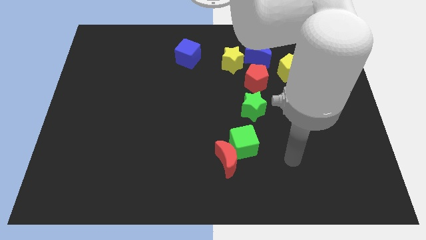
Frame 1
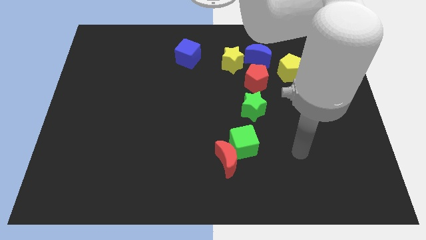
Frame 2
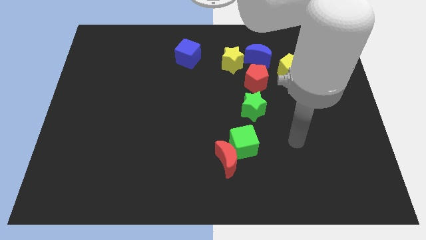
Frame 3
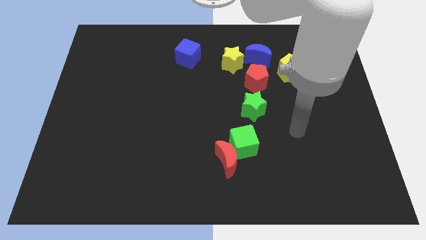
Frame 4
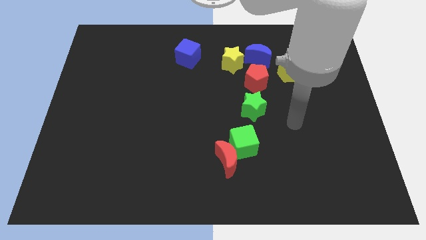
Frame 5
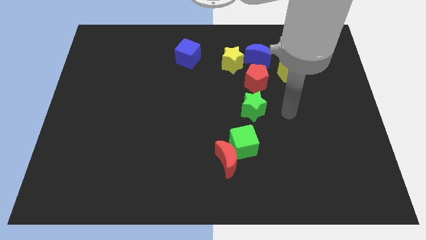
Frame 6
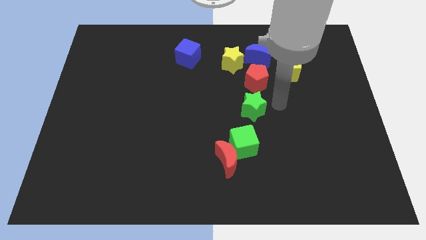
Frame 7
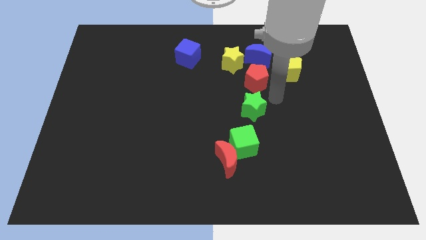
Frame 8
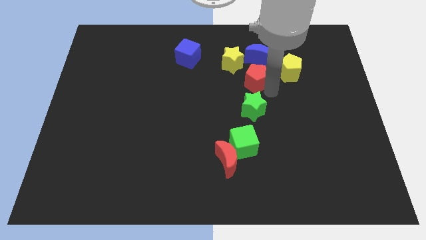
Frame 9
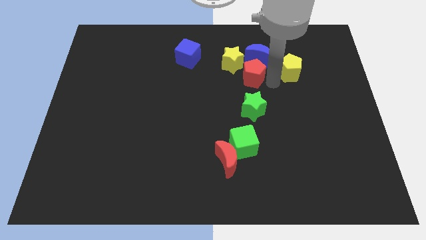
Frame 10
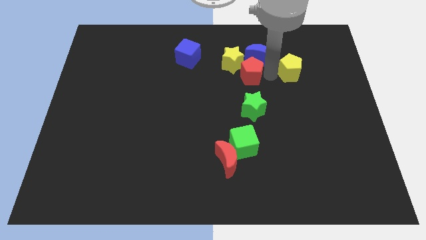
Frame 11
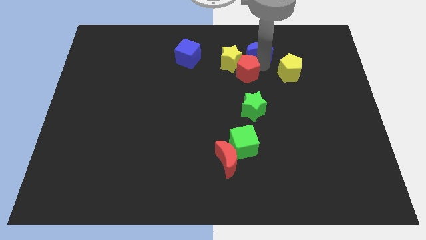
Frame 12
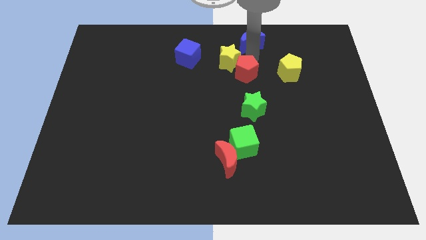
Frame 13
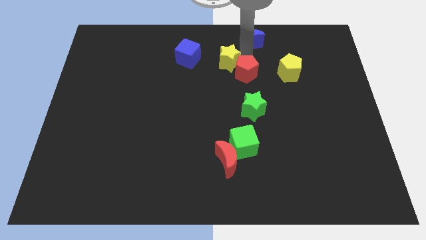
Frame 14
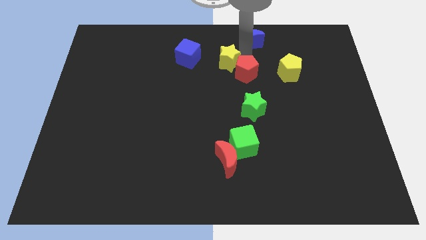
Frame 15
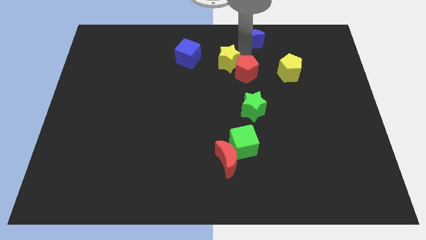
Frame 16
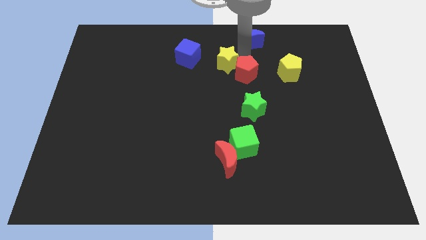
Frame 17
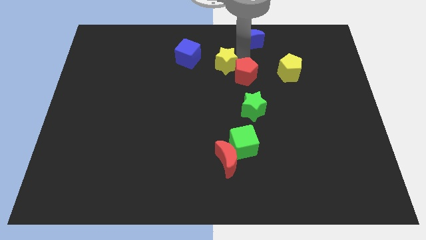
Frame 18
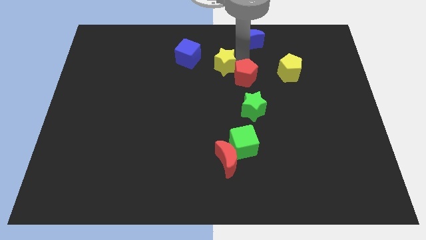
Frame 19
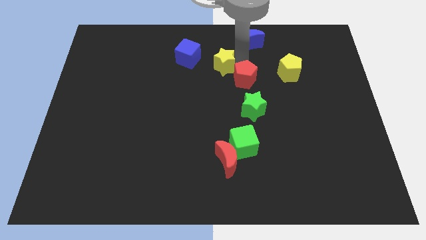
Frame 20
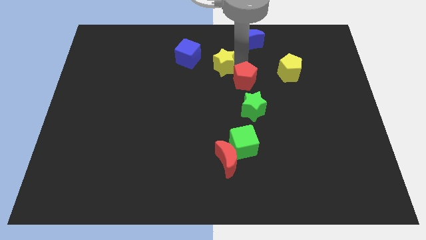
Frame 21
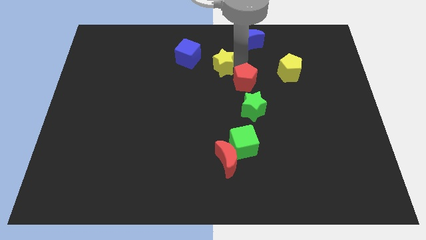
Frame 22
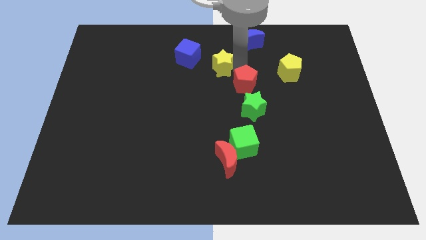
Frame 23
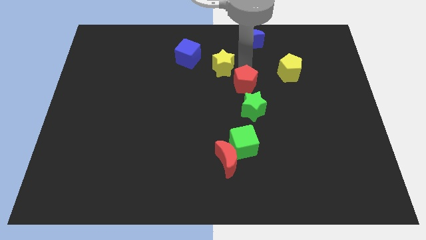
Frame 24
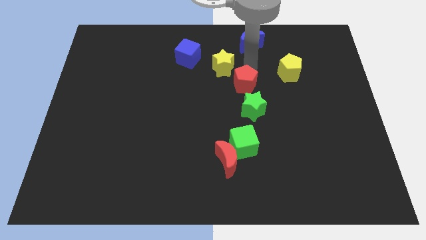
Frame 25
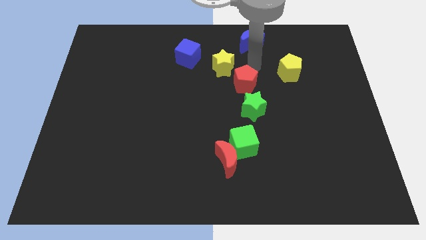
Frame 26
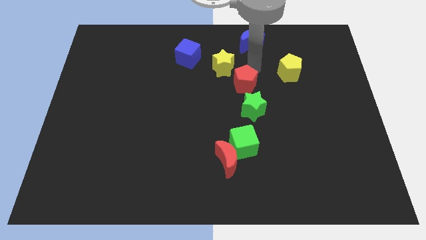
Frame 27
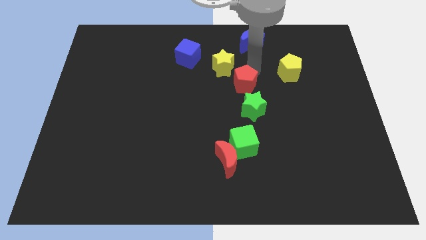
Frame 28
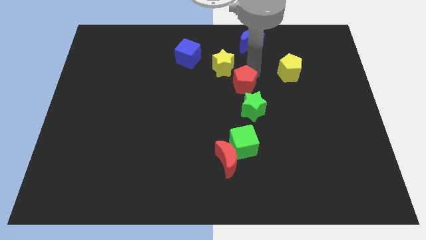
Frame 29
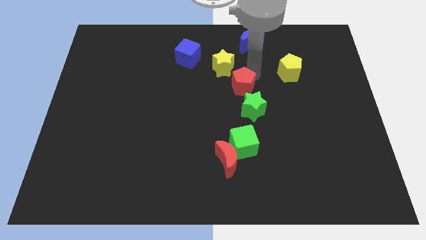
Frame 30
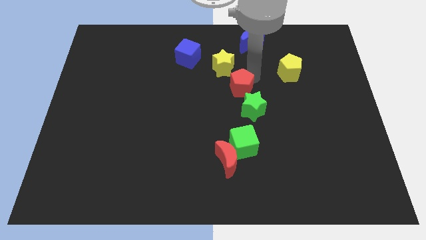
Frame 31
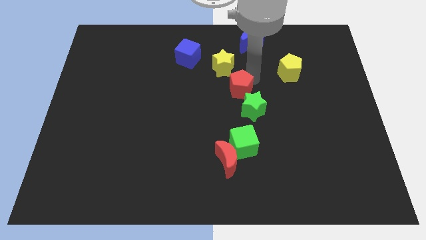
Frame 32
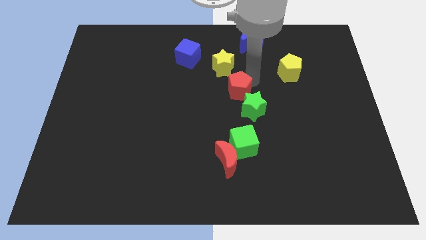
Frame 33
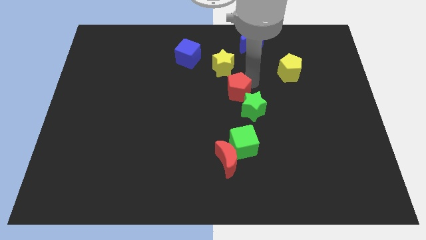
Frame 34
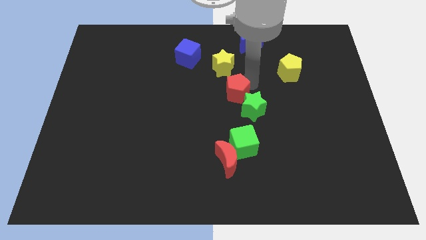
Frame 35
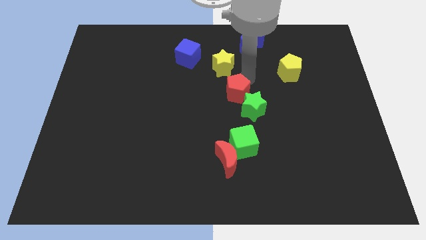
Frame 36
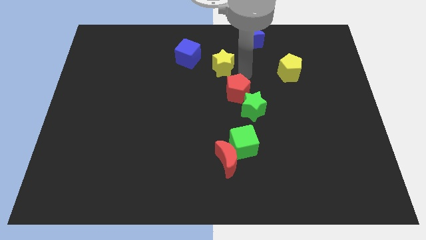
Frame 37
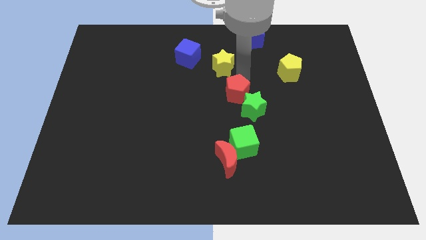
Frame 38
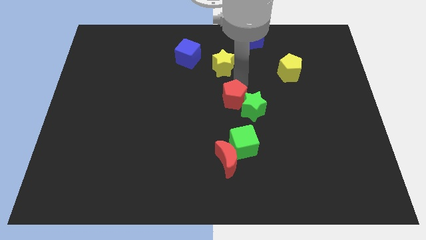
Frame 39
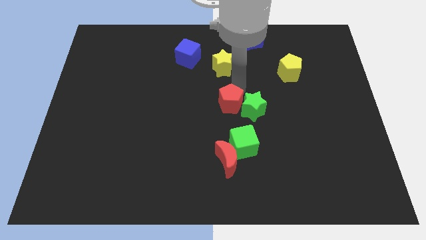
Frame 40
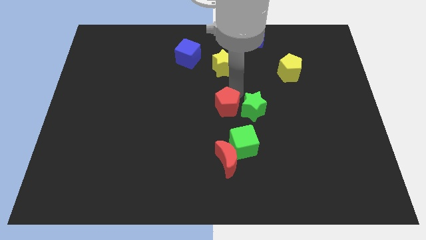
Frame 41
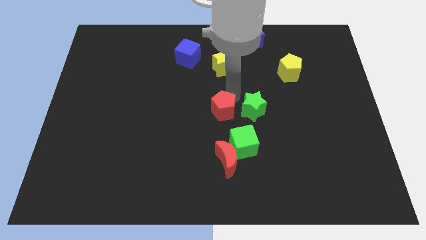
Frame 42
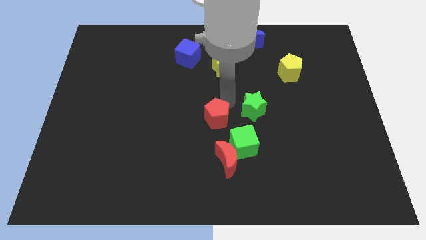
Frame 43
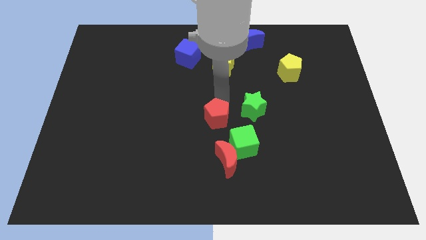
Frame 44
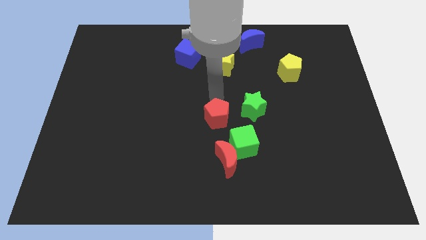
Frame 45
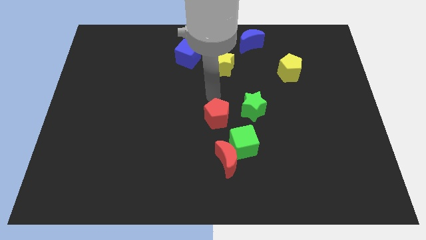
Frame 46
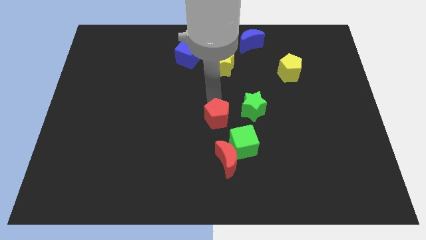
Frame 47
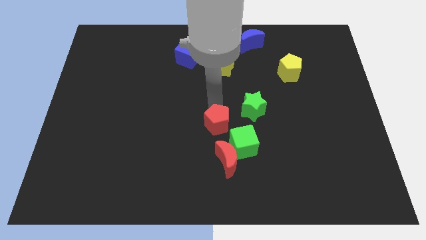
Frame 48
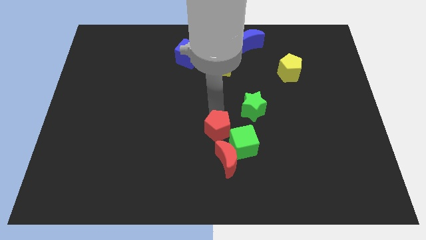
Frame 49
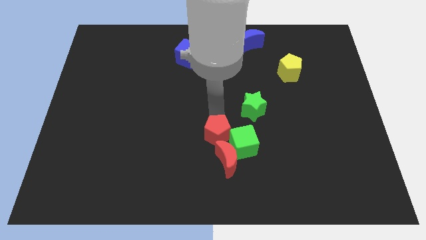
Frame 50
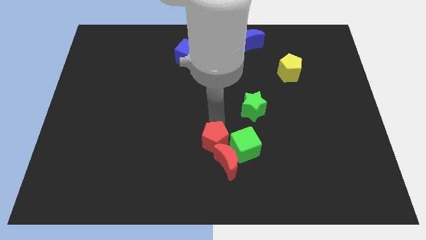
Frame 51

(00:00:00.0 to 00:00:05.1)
move the red pentagon close to the red moon

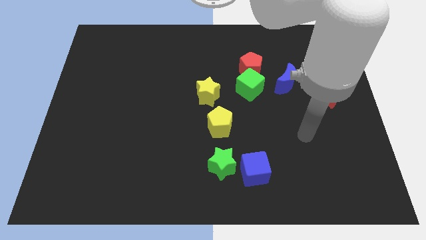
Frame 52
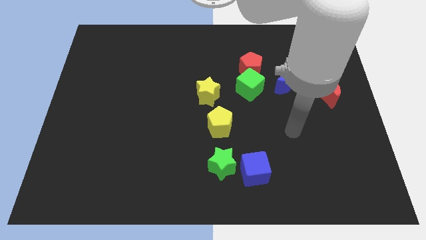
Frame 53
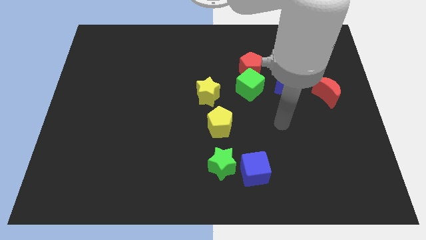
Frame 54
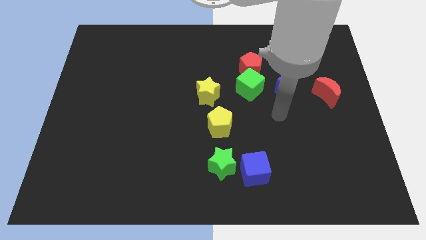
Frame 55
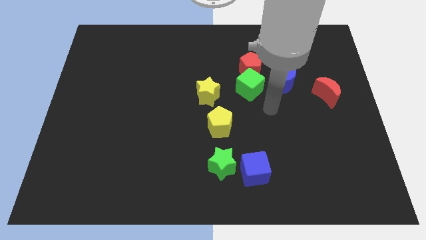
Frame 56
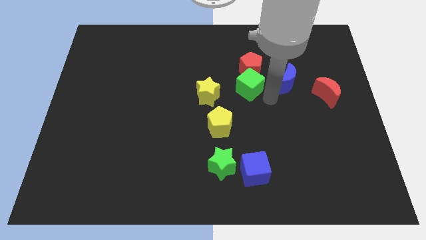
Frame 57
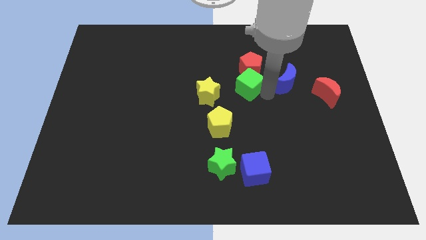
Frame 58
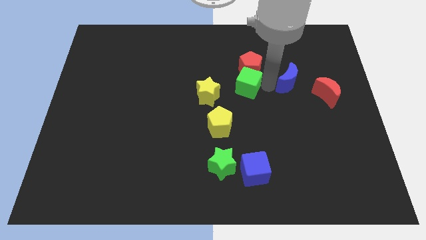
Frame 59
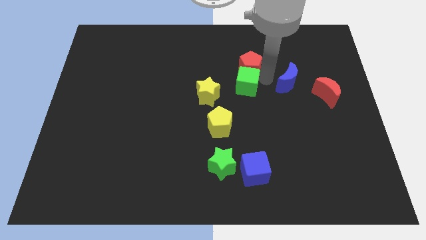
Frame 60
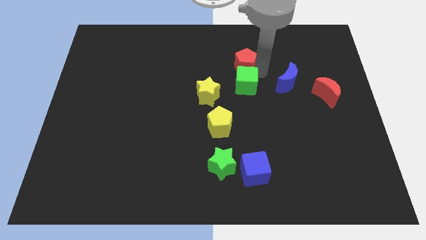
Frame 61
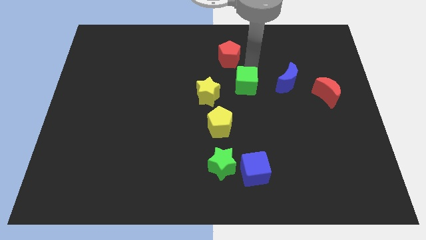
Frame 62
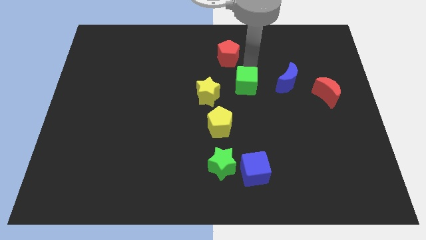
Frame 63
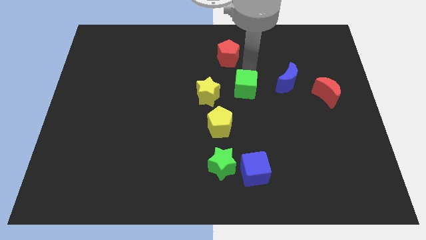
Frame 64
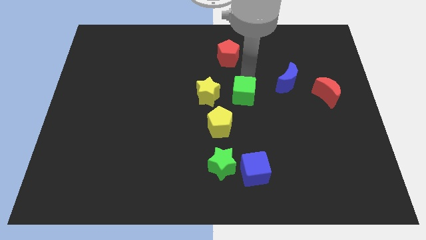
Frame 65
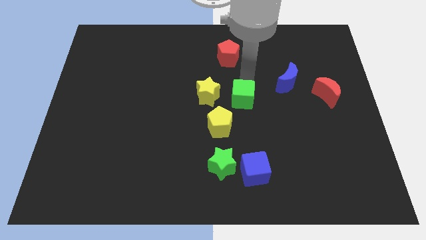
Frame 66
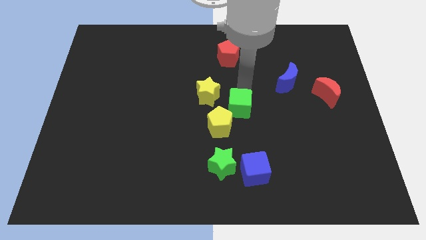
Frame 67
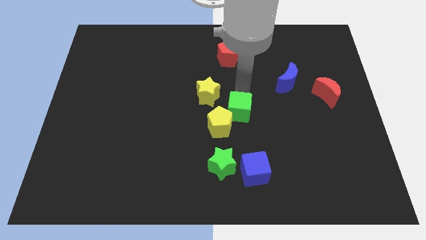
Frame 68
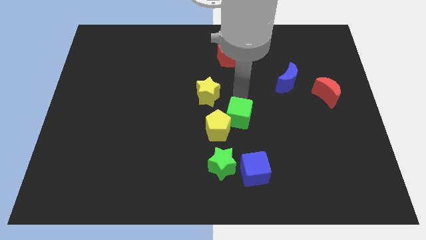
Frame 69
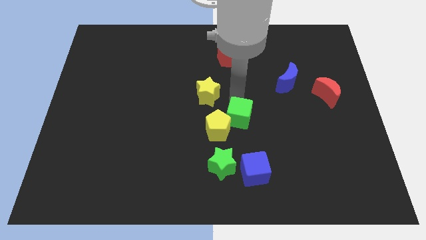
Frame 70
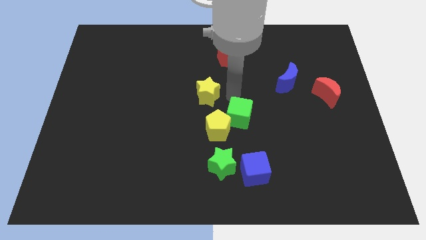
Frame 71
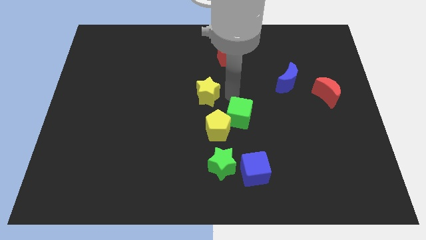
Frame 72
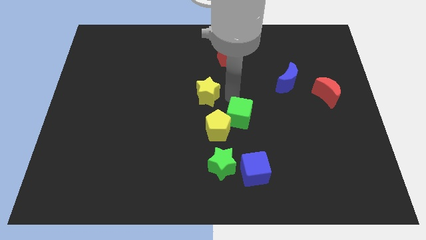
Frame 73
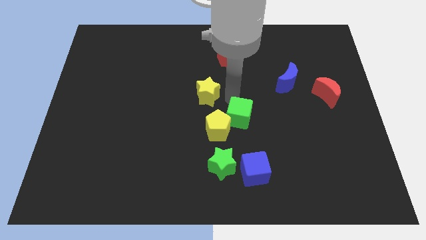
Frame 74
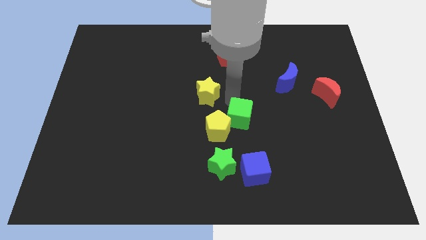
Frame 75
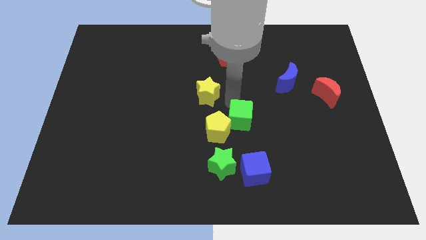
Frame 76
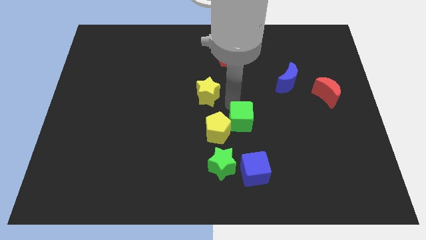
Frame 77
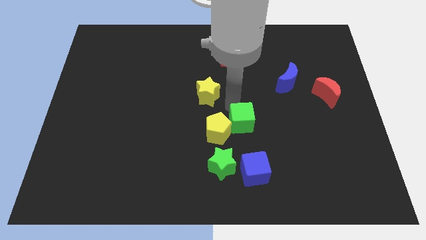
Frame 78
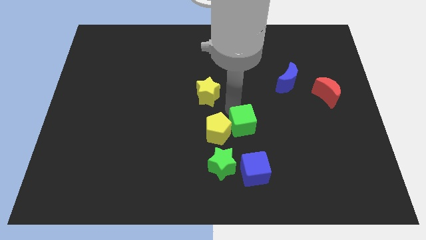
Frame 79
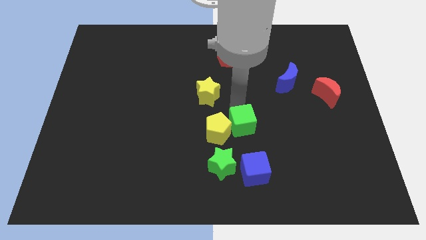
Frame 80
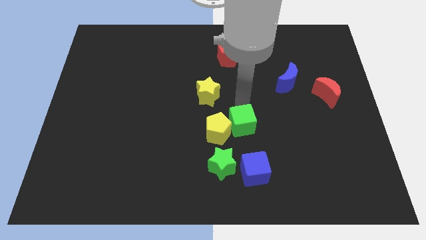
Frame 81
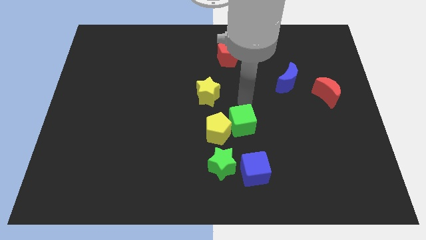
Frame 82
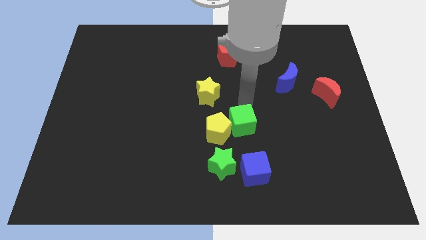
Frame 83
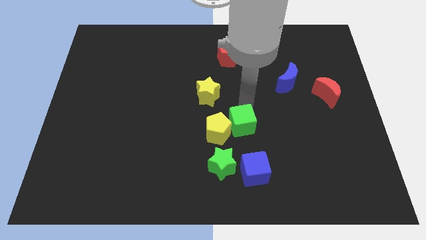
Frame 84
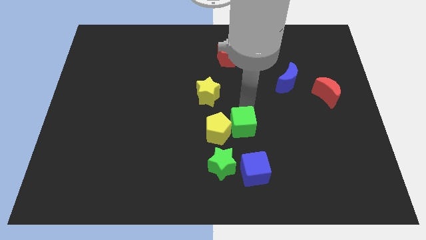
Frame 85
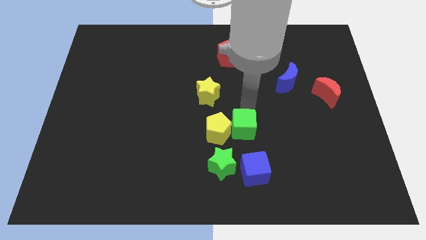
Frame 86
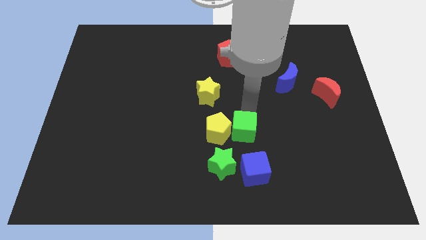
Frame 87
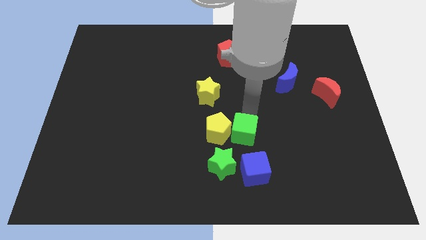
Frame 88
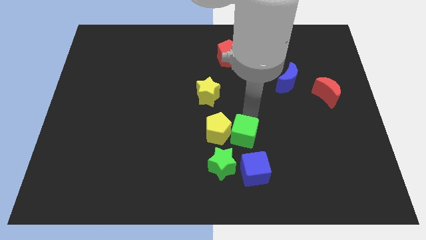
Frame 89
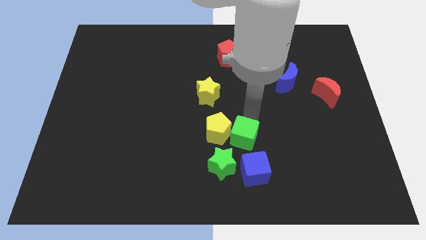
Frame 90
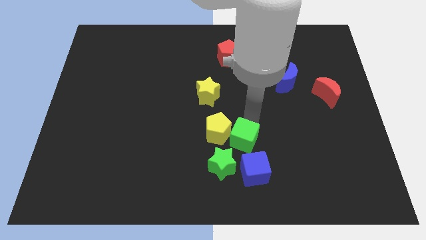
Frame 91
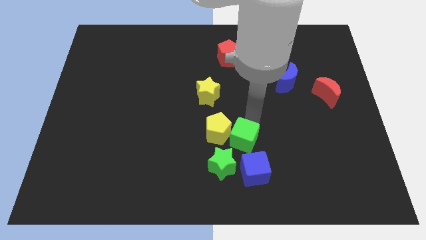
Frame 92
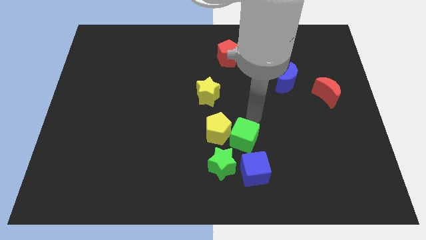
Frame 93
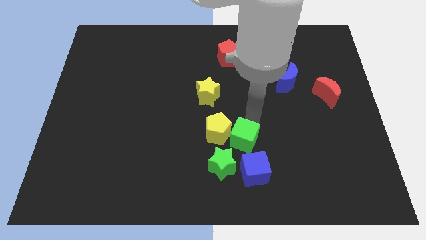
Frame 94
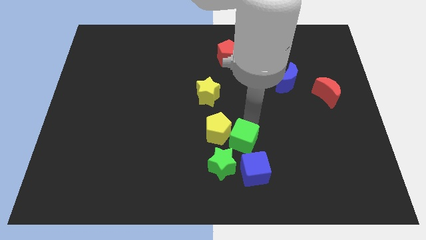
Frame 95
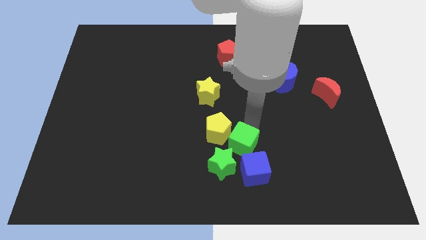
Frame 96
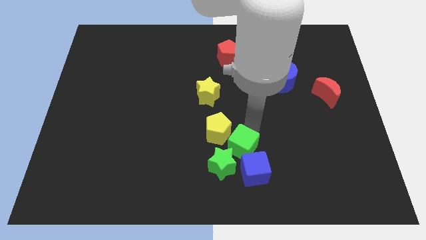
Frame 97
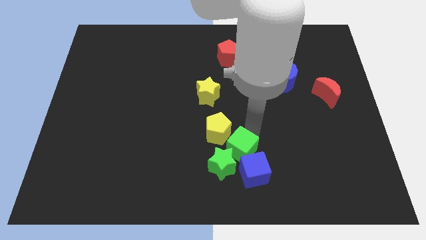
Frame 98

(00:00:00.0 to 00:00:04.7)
slide the green cube towards the green star
